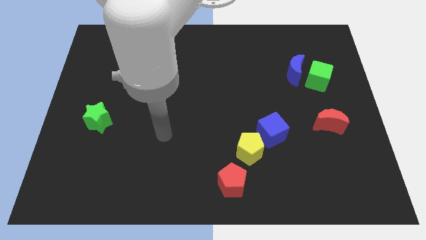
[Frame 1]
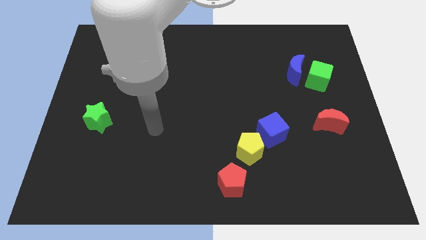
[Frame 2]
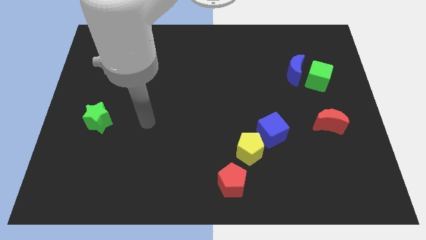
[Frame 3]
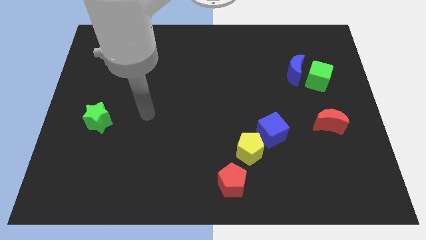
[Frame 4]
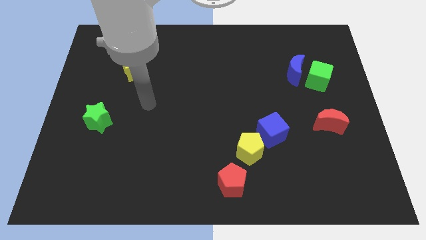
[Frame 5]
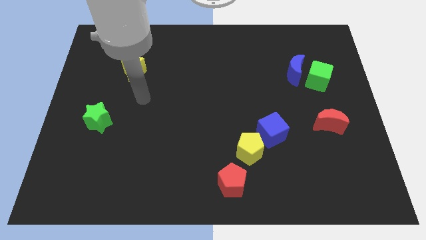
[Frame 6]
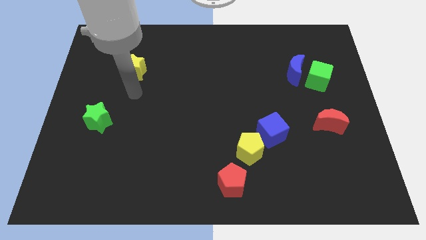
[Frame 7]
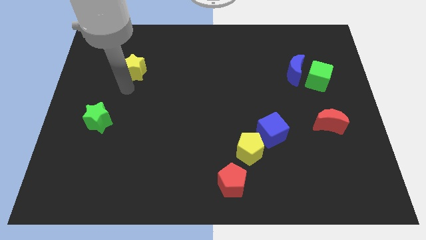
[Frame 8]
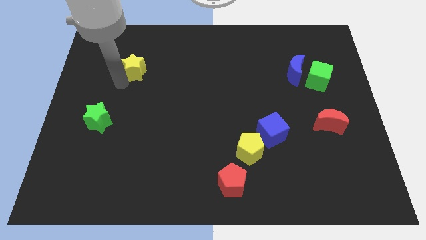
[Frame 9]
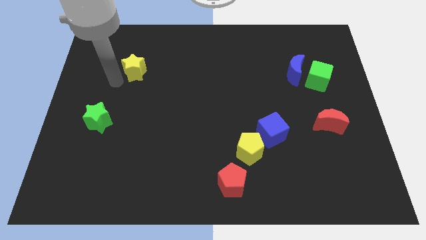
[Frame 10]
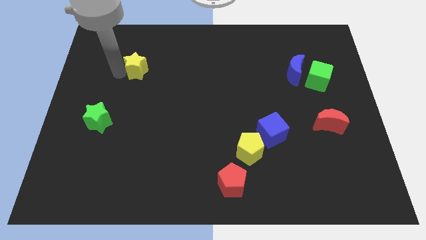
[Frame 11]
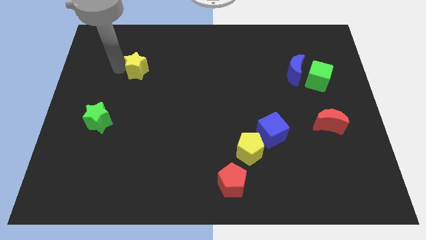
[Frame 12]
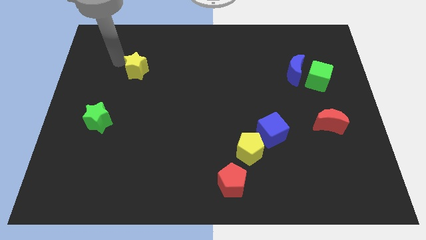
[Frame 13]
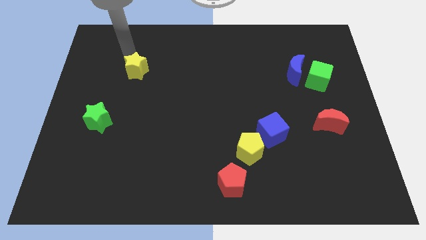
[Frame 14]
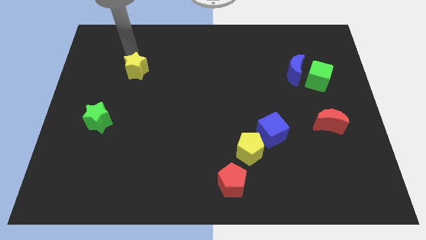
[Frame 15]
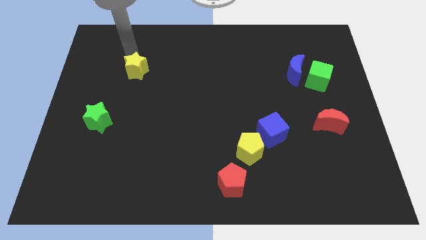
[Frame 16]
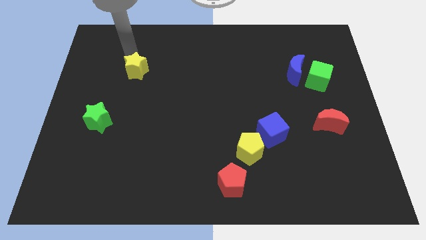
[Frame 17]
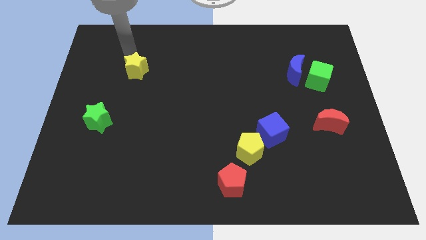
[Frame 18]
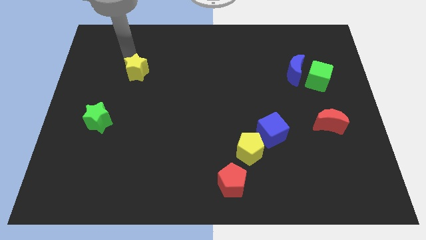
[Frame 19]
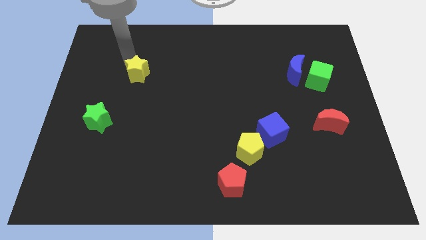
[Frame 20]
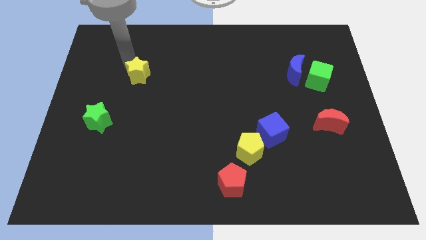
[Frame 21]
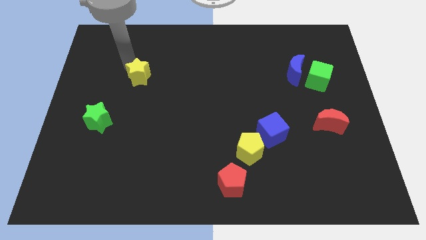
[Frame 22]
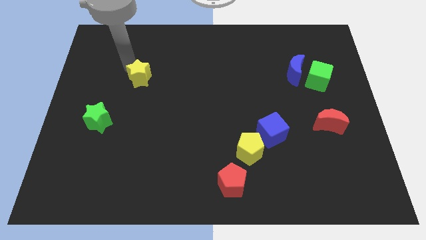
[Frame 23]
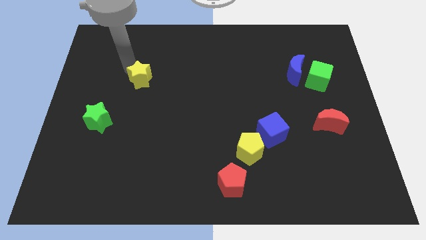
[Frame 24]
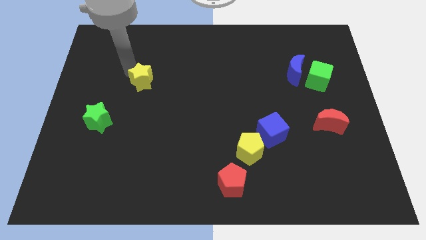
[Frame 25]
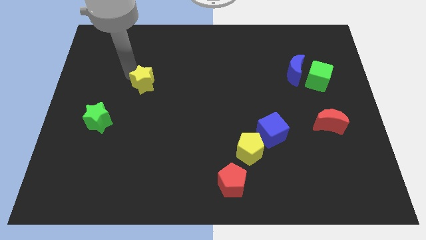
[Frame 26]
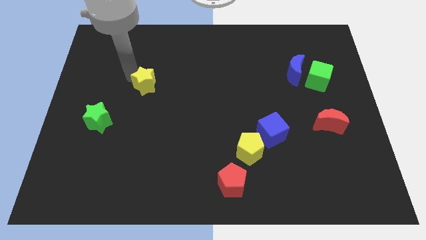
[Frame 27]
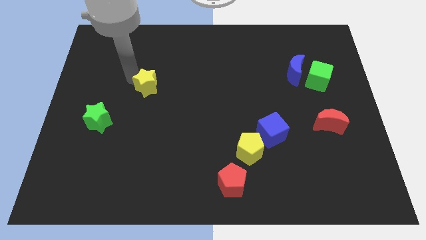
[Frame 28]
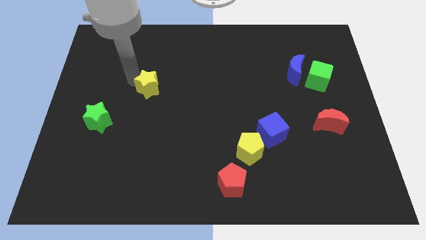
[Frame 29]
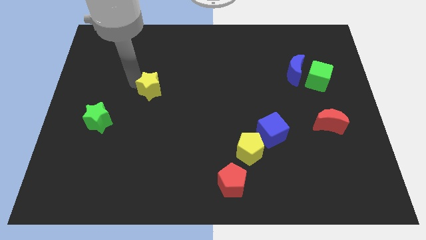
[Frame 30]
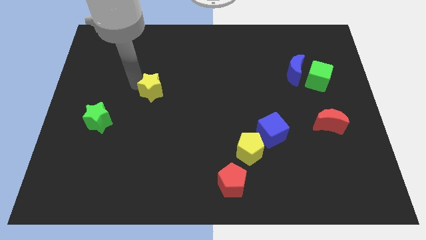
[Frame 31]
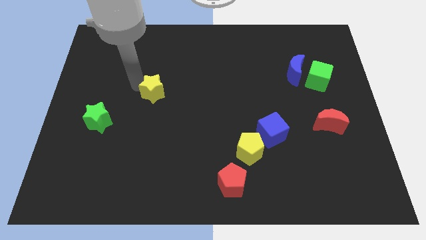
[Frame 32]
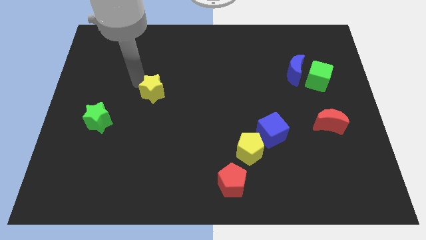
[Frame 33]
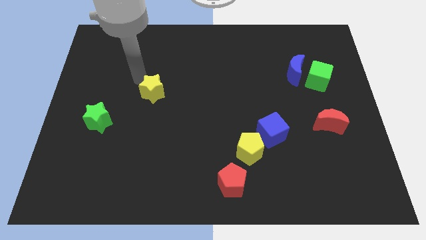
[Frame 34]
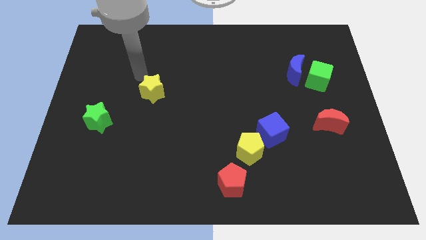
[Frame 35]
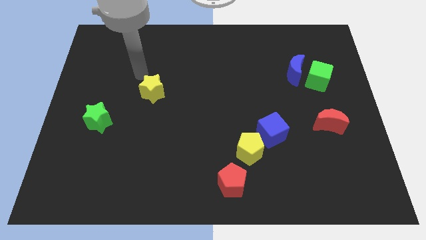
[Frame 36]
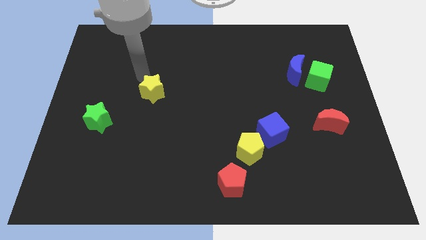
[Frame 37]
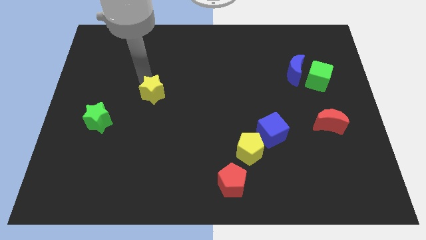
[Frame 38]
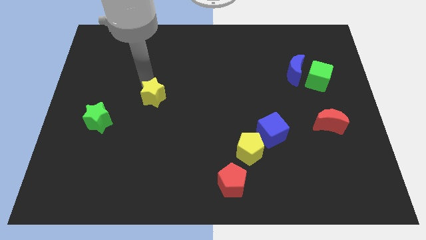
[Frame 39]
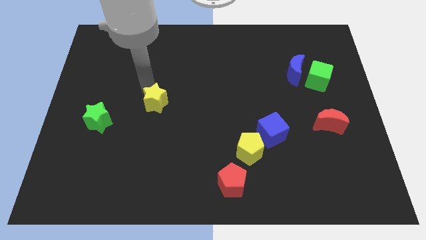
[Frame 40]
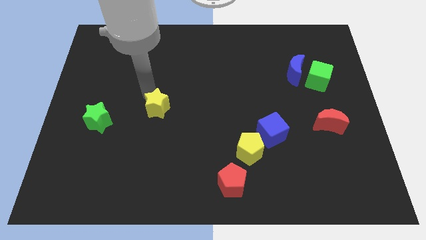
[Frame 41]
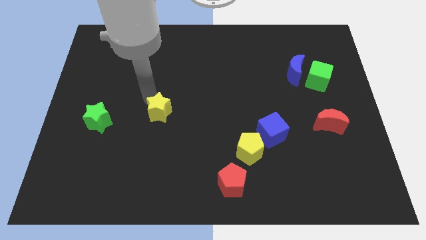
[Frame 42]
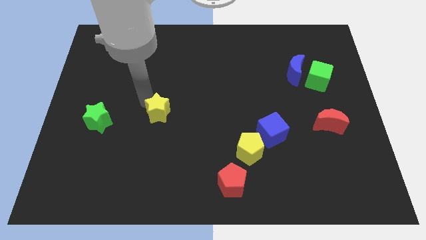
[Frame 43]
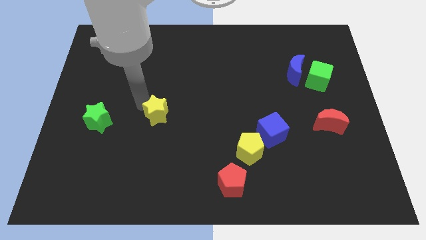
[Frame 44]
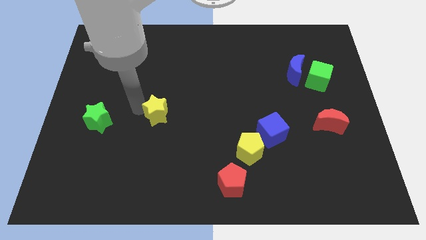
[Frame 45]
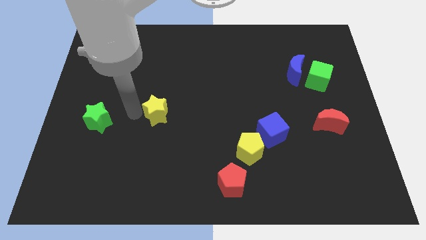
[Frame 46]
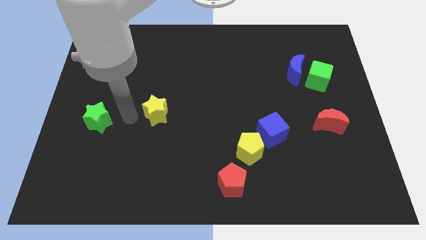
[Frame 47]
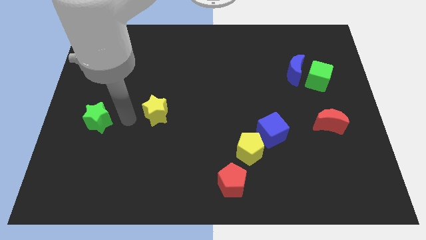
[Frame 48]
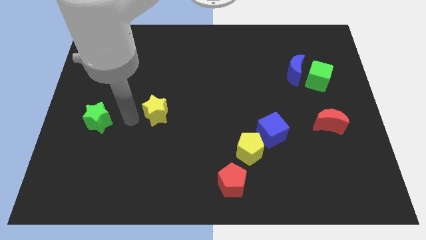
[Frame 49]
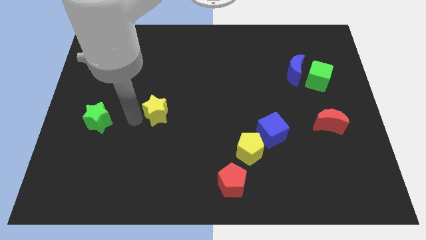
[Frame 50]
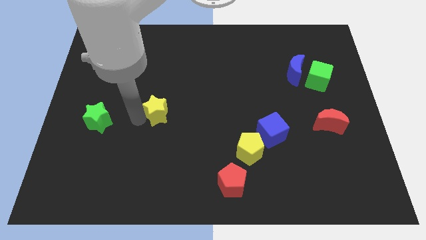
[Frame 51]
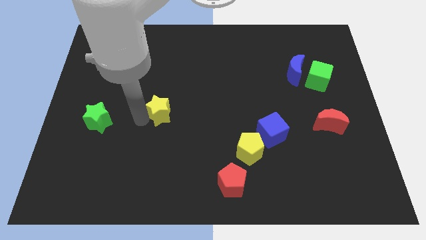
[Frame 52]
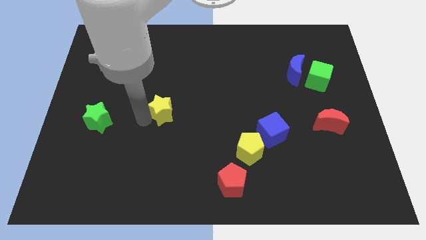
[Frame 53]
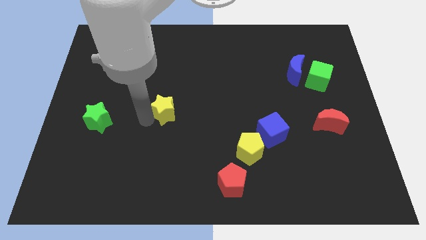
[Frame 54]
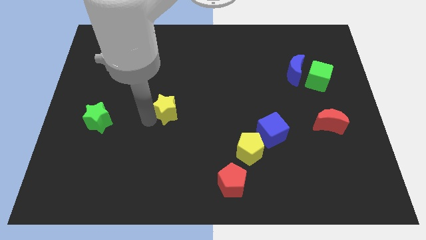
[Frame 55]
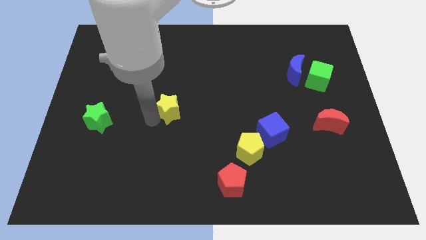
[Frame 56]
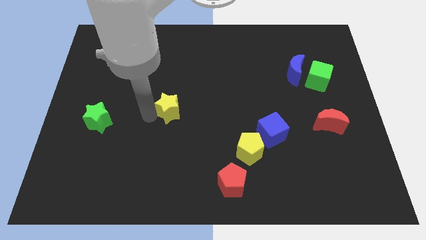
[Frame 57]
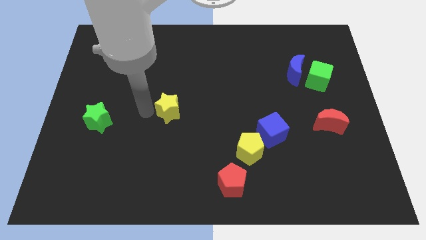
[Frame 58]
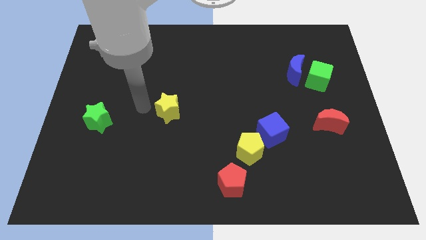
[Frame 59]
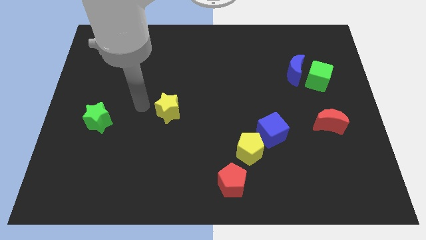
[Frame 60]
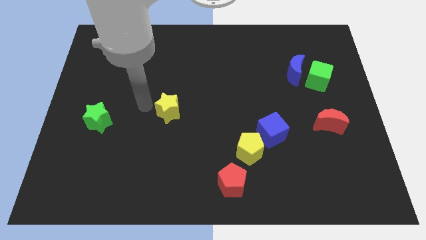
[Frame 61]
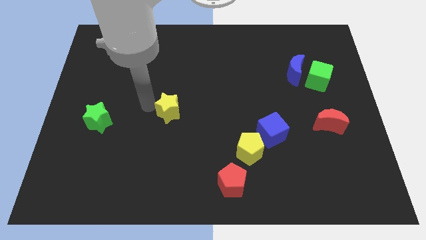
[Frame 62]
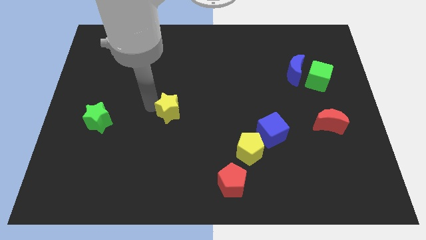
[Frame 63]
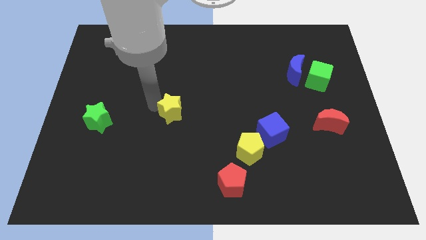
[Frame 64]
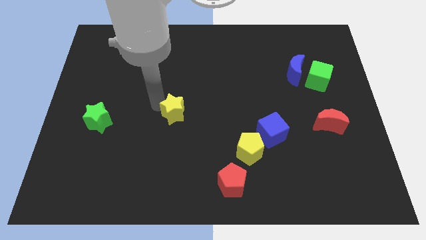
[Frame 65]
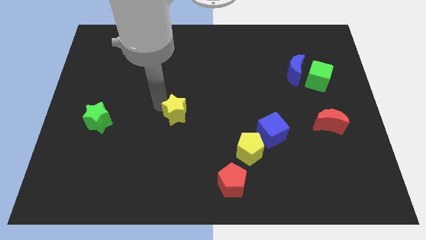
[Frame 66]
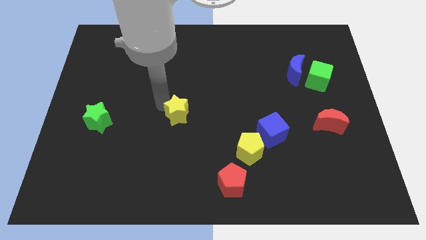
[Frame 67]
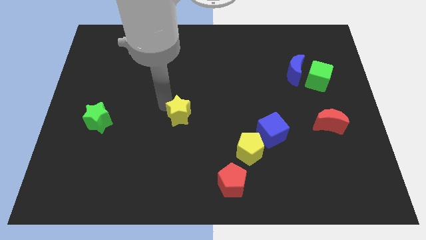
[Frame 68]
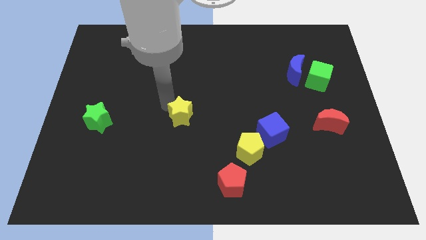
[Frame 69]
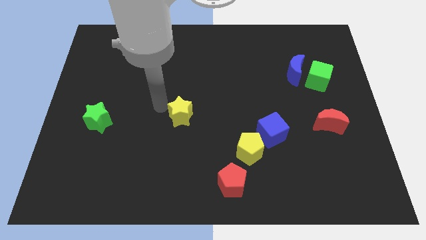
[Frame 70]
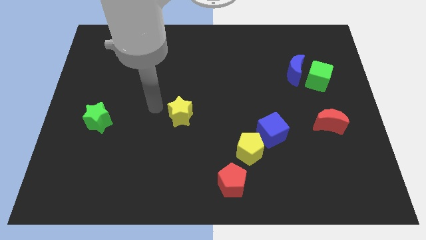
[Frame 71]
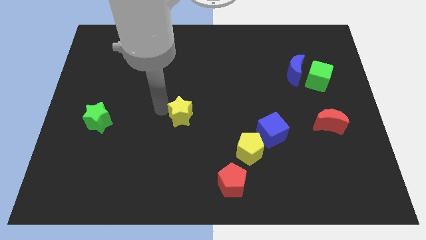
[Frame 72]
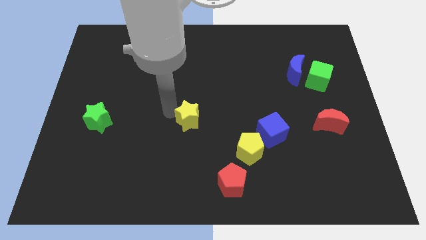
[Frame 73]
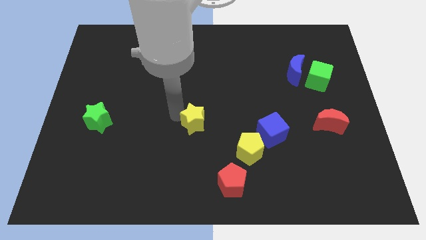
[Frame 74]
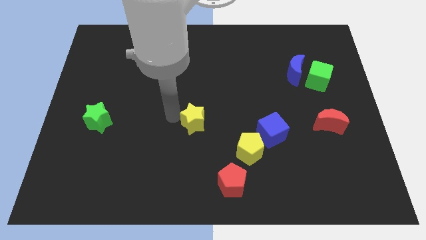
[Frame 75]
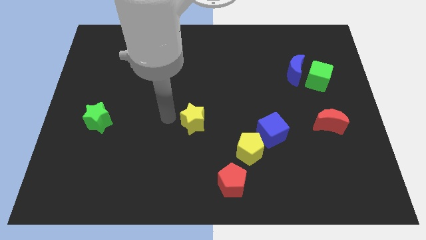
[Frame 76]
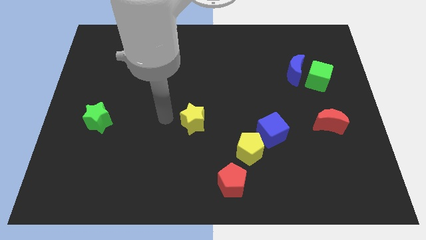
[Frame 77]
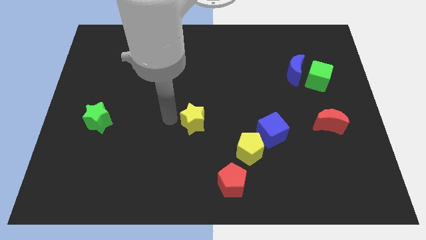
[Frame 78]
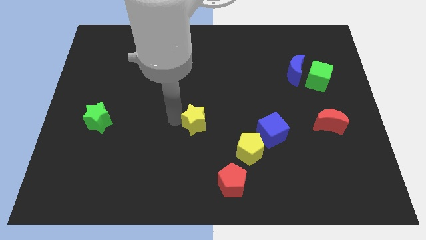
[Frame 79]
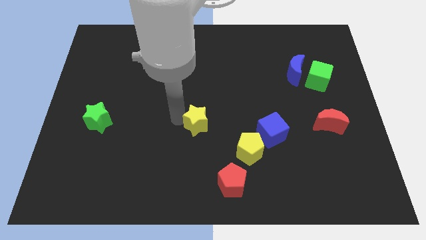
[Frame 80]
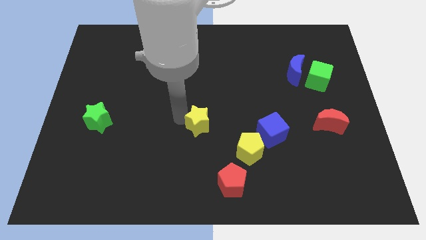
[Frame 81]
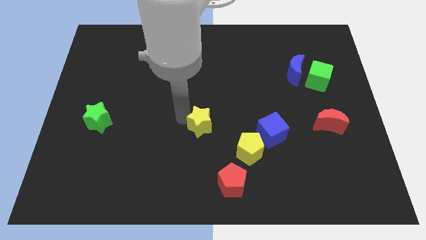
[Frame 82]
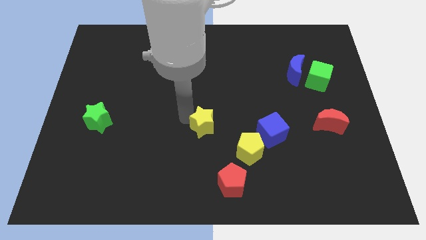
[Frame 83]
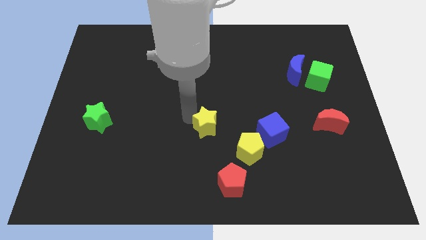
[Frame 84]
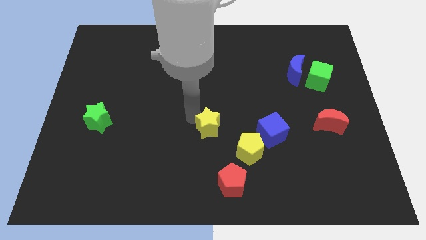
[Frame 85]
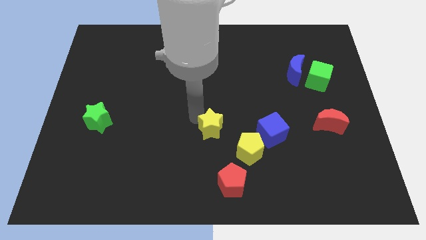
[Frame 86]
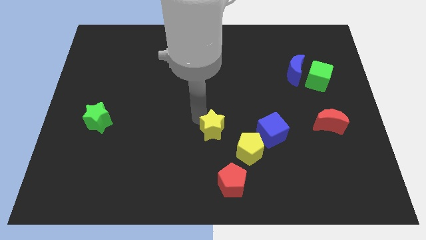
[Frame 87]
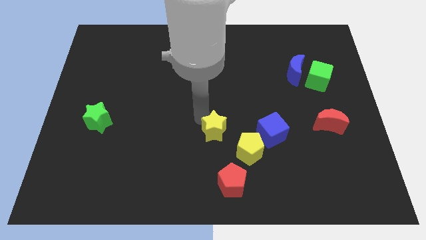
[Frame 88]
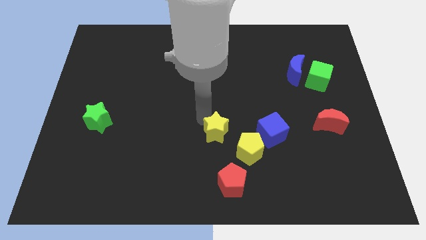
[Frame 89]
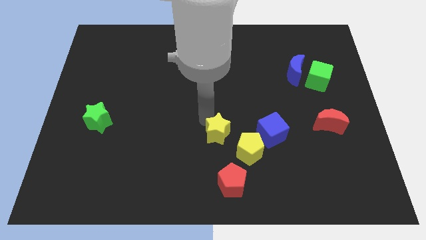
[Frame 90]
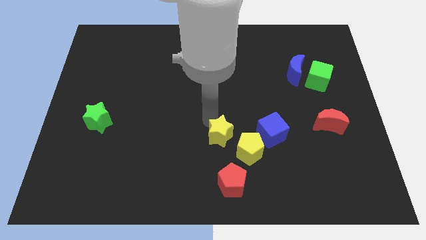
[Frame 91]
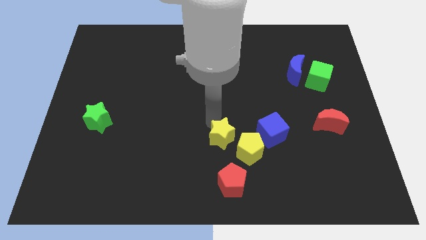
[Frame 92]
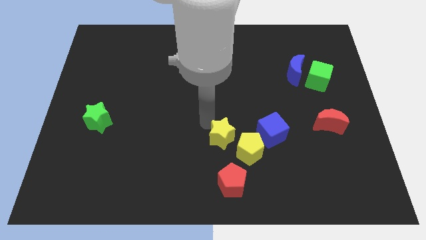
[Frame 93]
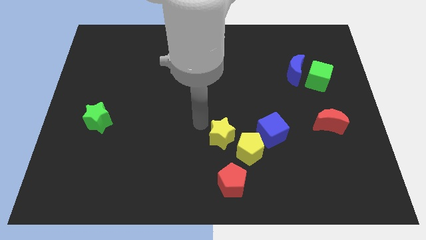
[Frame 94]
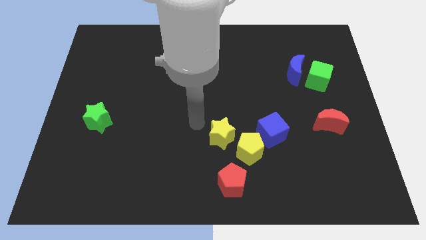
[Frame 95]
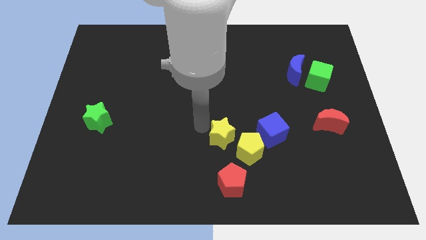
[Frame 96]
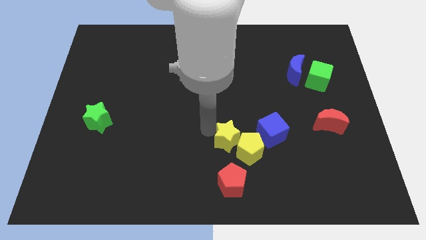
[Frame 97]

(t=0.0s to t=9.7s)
slide the yellow star to the yellow pentagon
